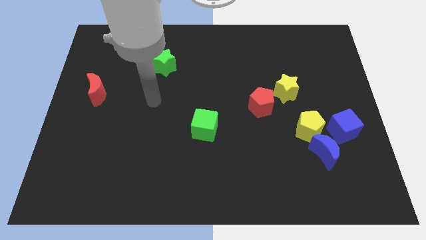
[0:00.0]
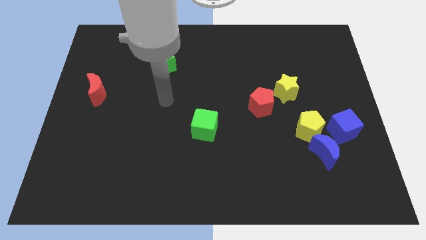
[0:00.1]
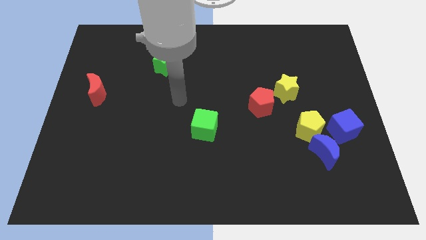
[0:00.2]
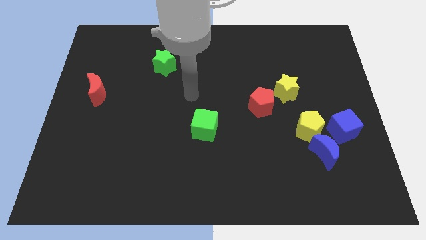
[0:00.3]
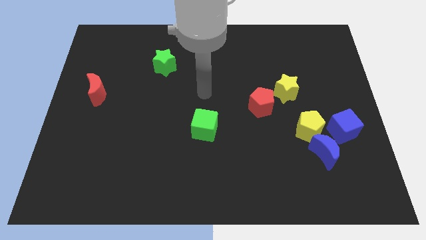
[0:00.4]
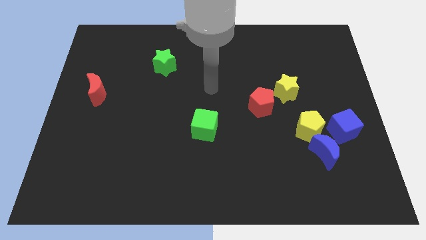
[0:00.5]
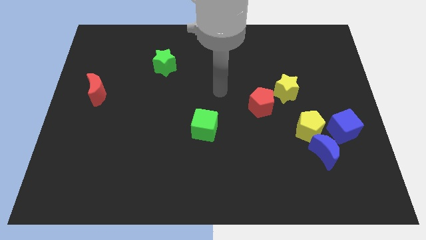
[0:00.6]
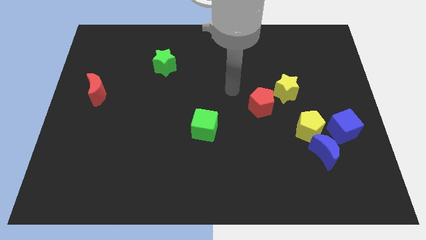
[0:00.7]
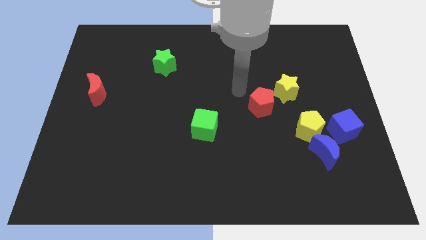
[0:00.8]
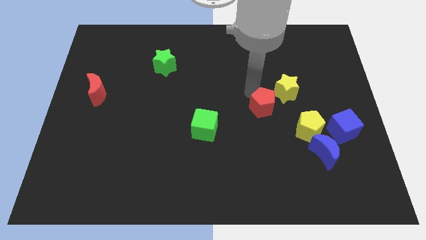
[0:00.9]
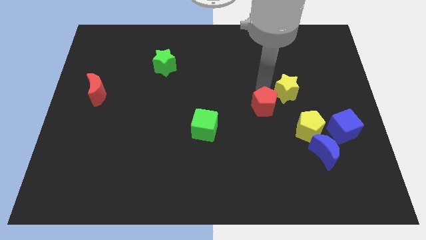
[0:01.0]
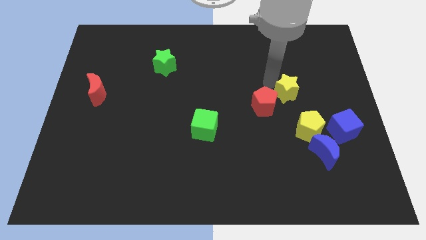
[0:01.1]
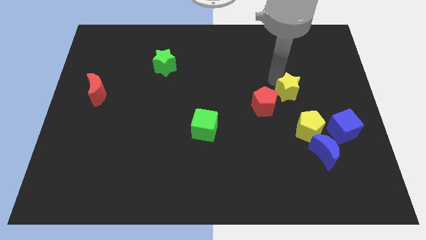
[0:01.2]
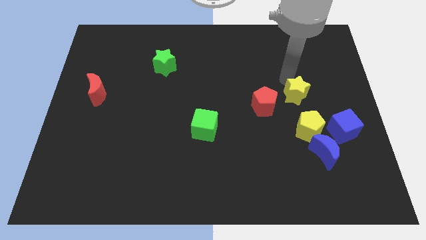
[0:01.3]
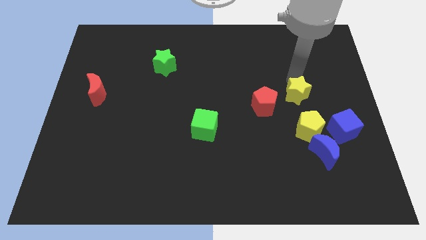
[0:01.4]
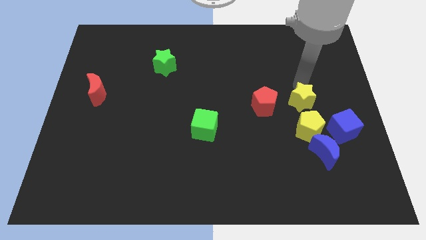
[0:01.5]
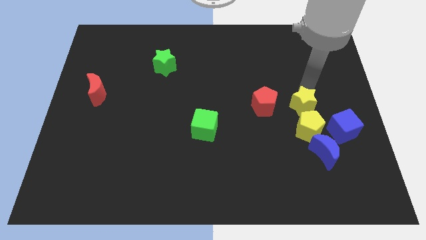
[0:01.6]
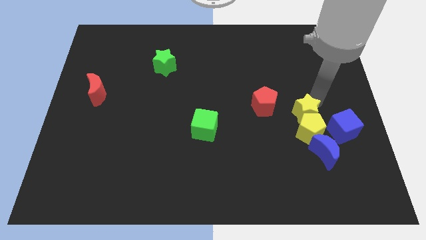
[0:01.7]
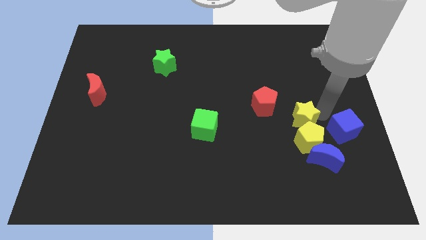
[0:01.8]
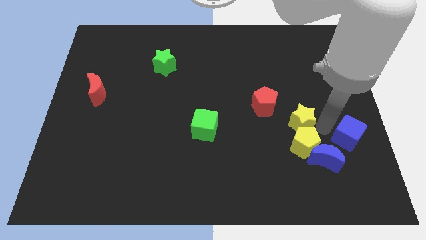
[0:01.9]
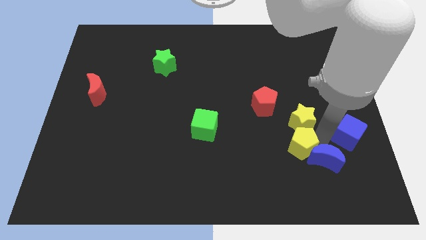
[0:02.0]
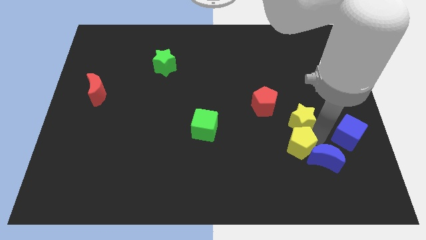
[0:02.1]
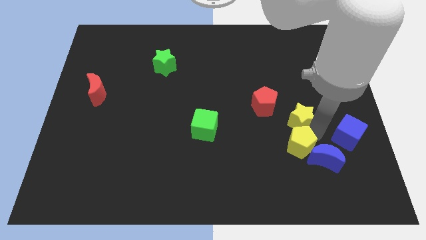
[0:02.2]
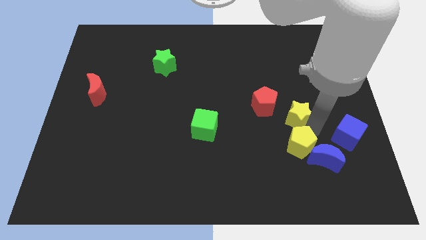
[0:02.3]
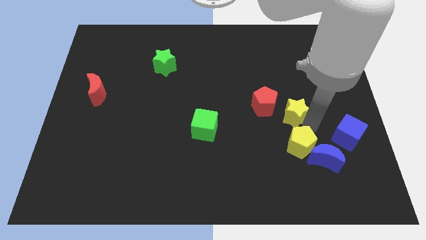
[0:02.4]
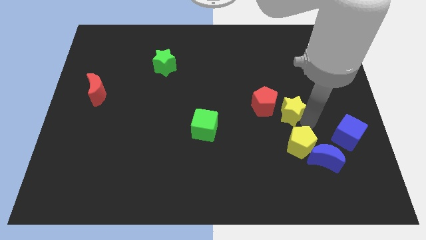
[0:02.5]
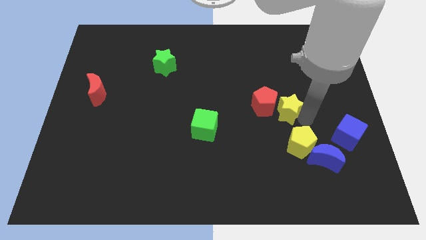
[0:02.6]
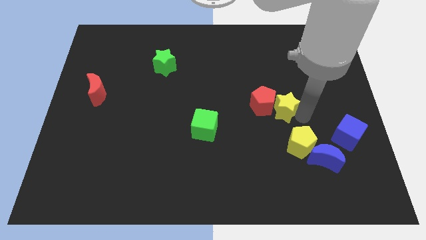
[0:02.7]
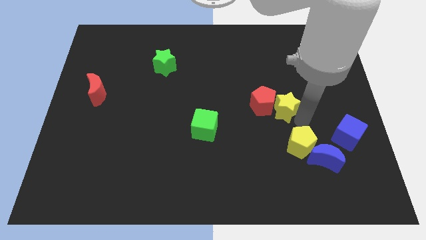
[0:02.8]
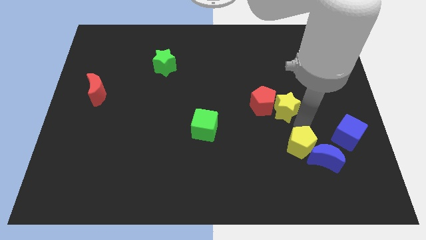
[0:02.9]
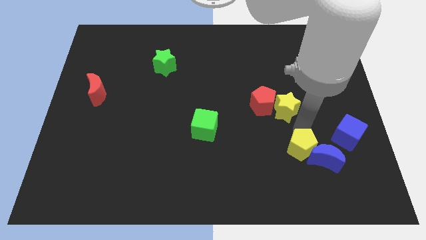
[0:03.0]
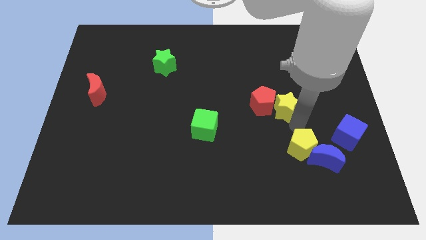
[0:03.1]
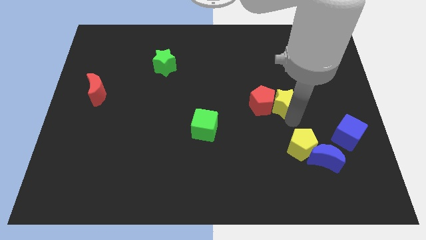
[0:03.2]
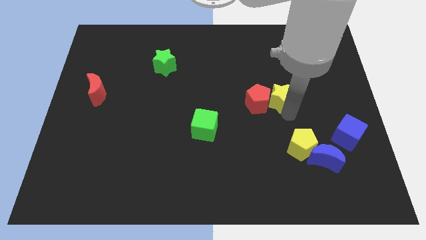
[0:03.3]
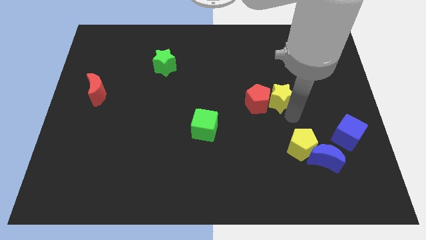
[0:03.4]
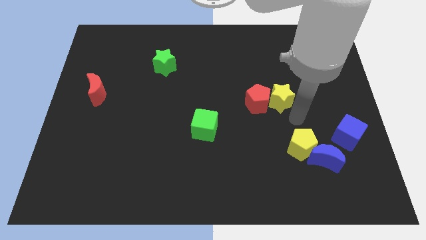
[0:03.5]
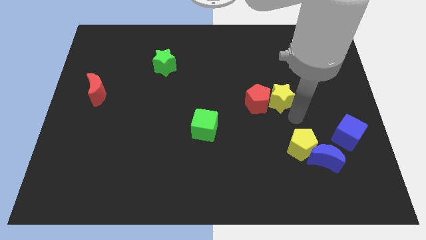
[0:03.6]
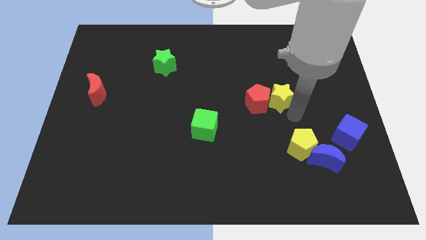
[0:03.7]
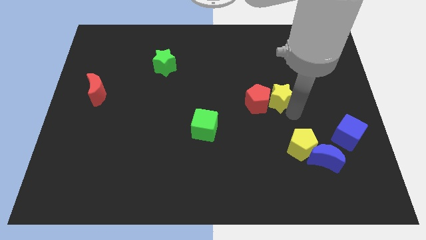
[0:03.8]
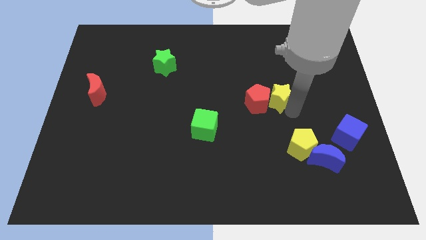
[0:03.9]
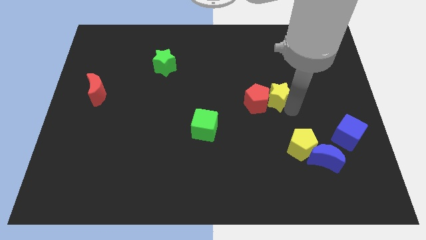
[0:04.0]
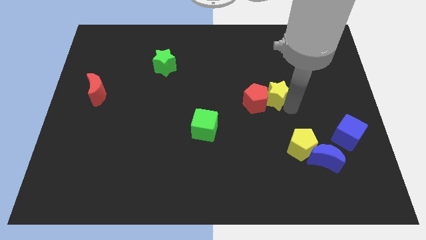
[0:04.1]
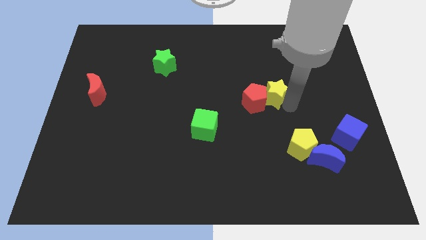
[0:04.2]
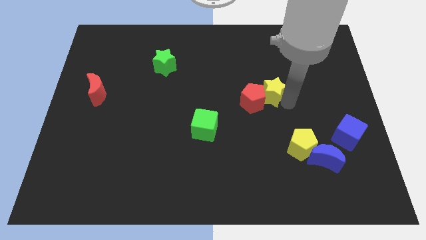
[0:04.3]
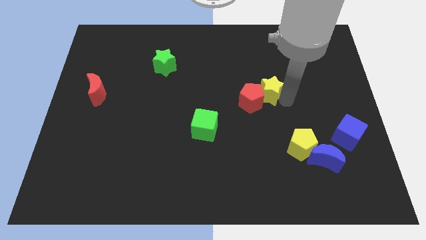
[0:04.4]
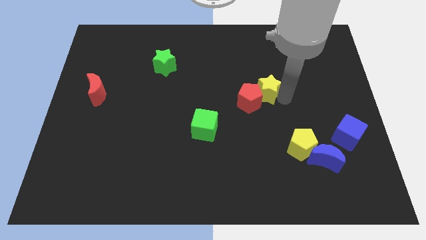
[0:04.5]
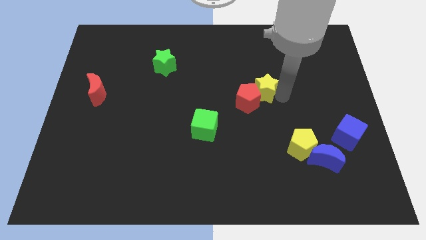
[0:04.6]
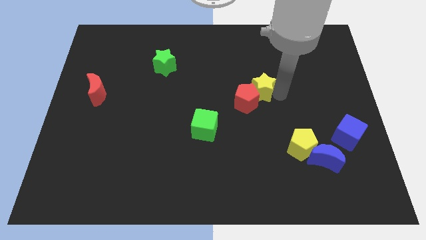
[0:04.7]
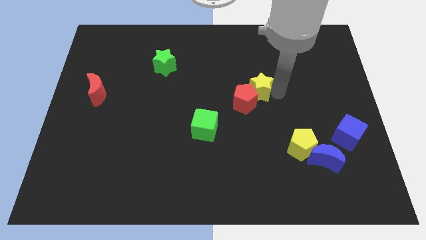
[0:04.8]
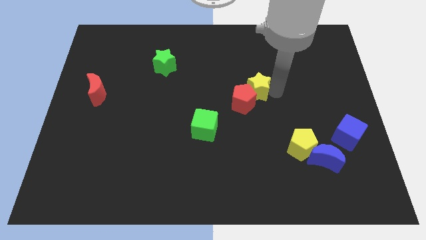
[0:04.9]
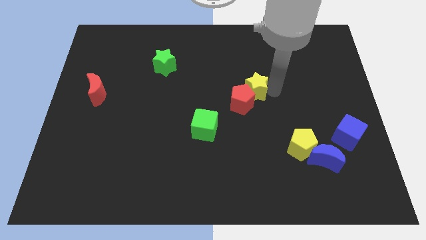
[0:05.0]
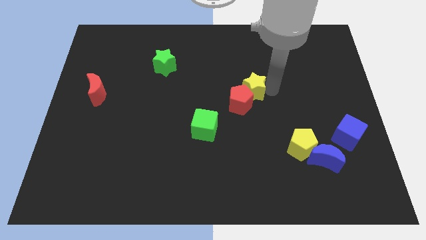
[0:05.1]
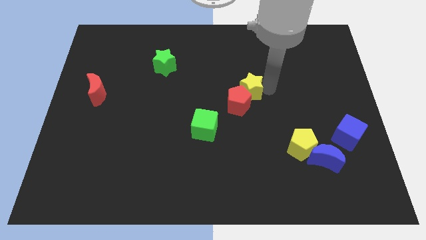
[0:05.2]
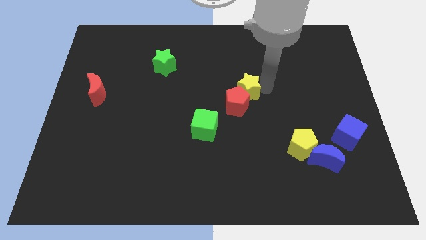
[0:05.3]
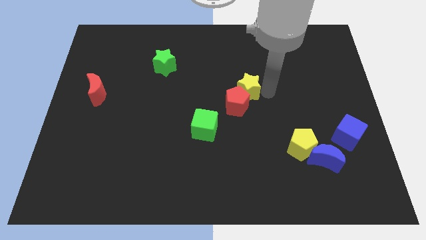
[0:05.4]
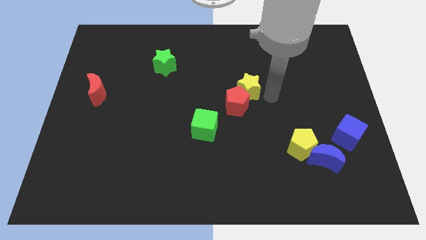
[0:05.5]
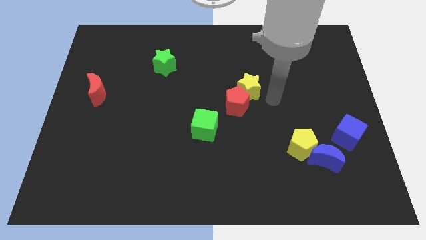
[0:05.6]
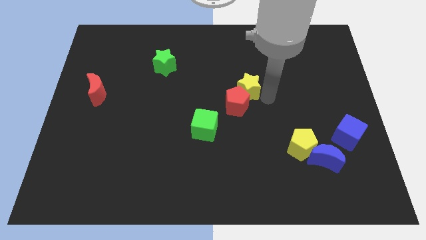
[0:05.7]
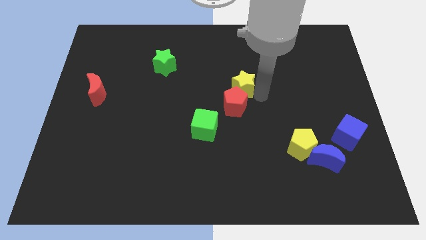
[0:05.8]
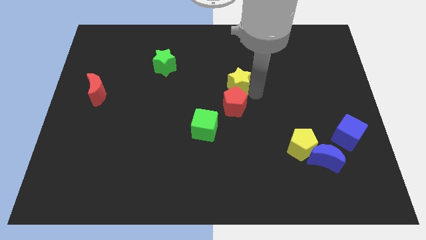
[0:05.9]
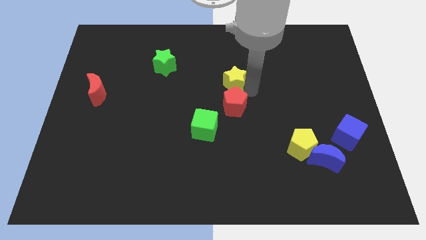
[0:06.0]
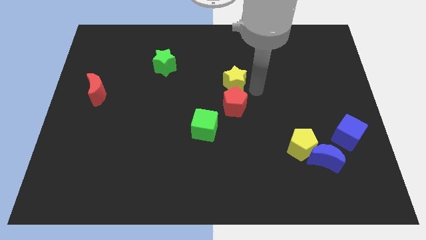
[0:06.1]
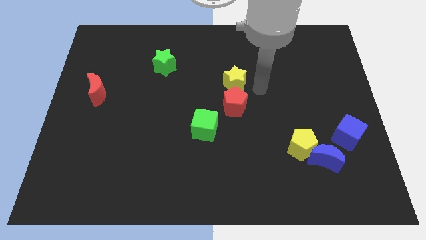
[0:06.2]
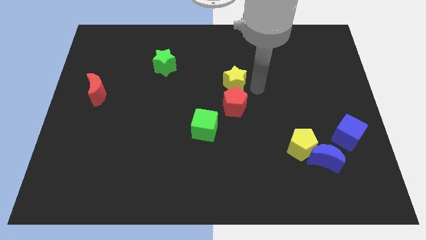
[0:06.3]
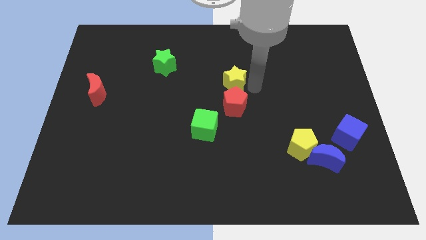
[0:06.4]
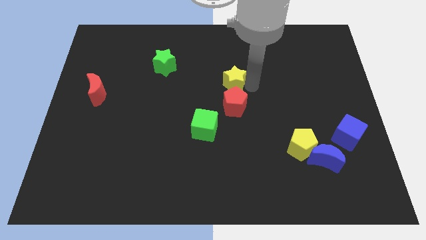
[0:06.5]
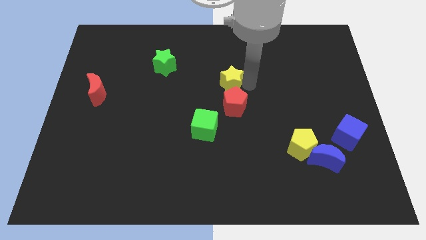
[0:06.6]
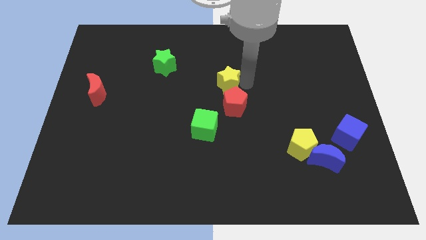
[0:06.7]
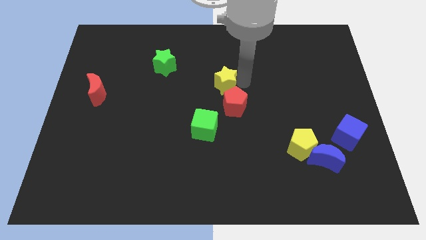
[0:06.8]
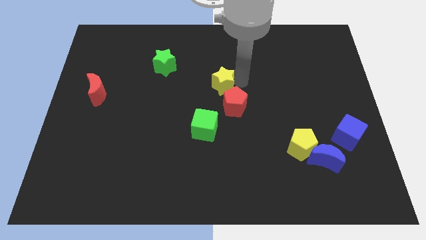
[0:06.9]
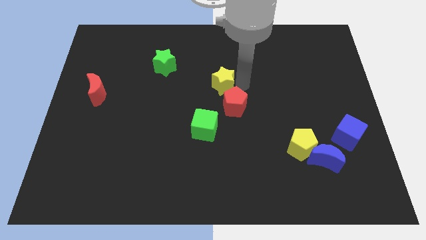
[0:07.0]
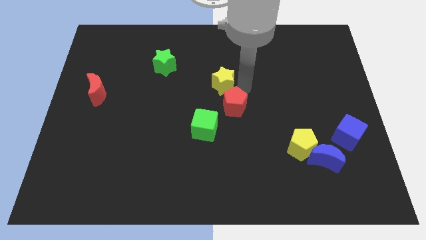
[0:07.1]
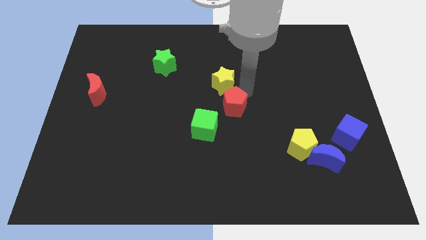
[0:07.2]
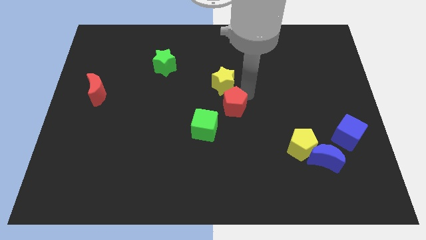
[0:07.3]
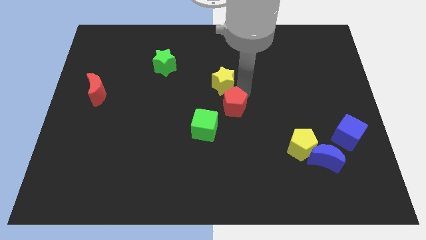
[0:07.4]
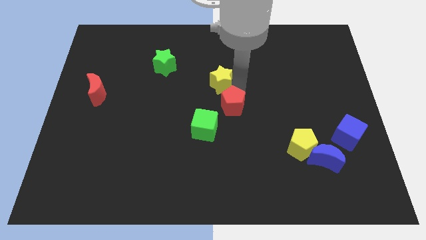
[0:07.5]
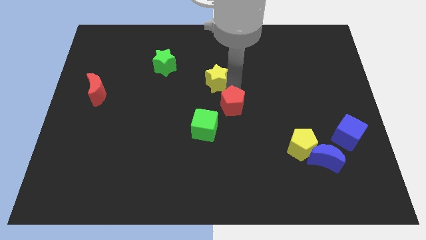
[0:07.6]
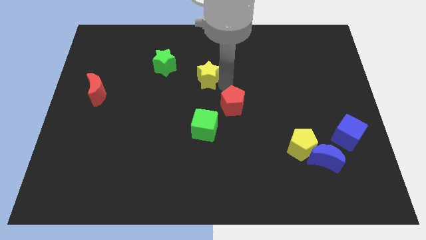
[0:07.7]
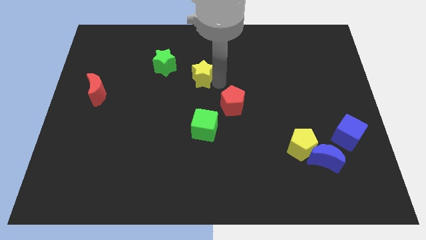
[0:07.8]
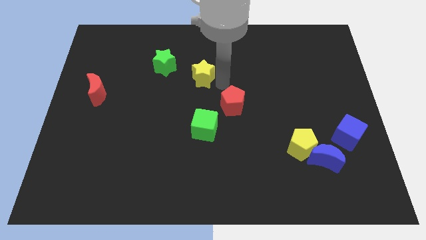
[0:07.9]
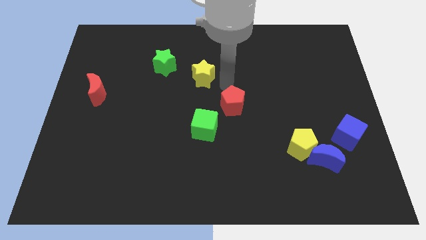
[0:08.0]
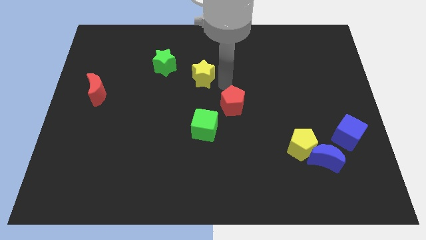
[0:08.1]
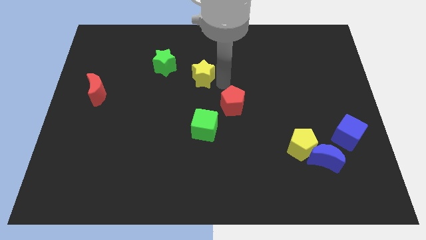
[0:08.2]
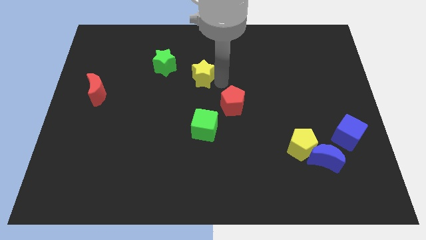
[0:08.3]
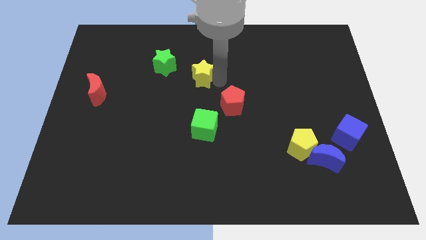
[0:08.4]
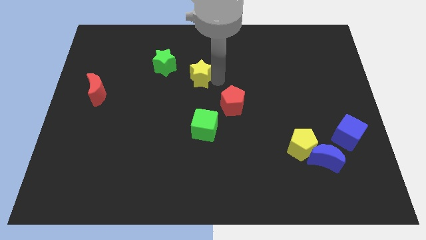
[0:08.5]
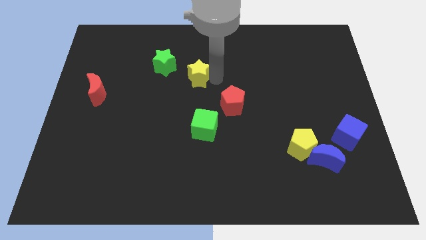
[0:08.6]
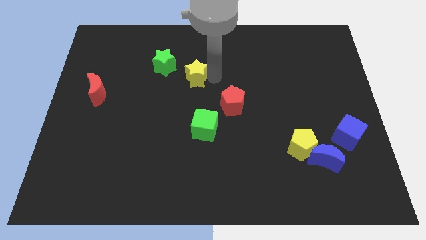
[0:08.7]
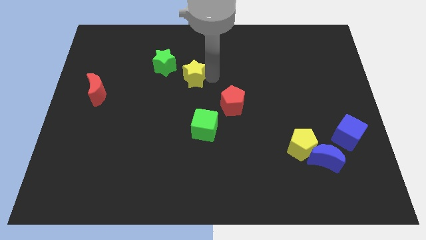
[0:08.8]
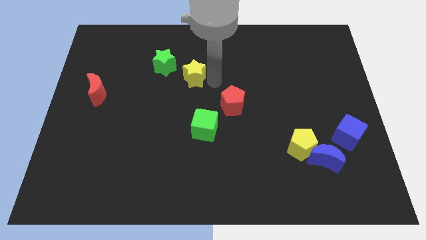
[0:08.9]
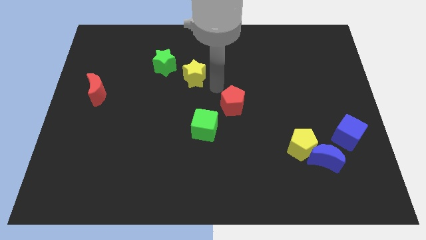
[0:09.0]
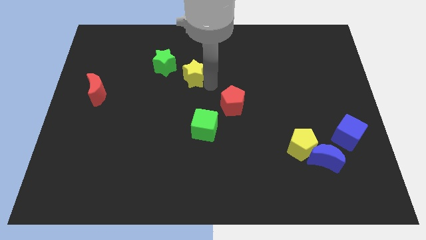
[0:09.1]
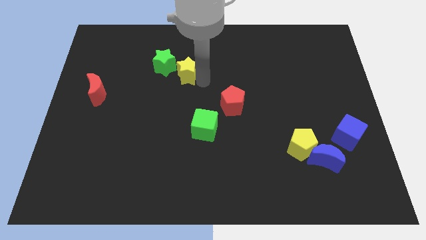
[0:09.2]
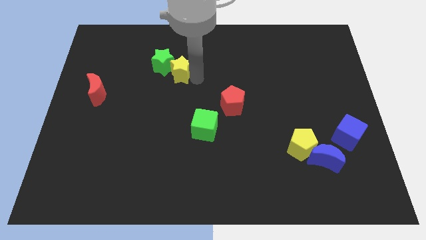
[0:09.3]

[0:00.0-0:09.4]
put the yellow star to the green star
